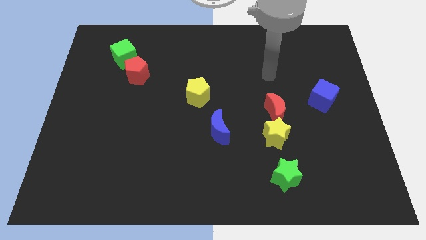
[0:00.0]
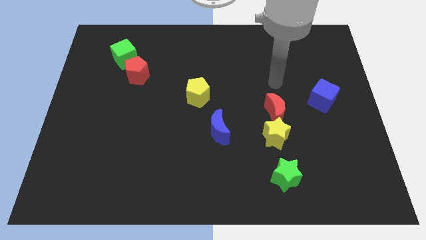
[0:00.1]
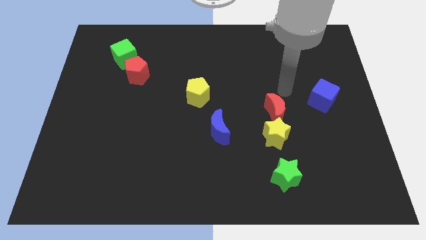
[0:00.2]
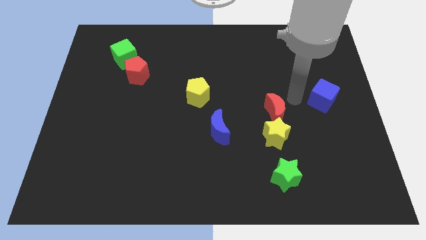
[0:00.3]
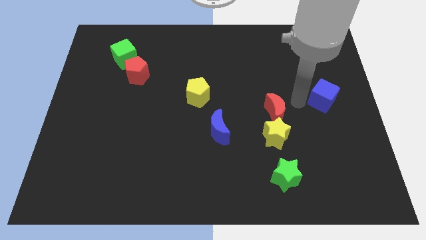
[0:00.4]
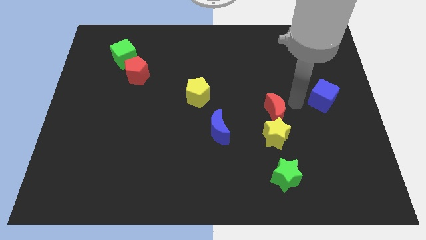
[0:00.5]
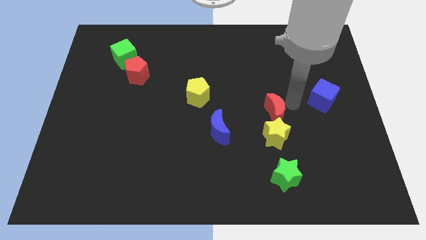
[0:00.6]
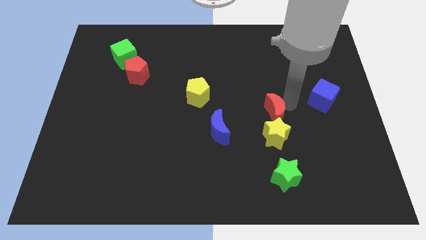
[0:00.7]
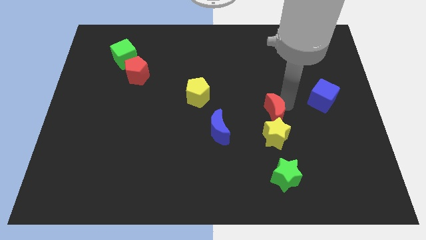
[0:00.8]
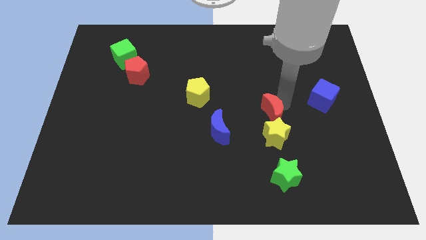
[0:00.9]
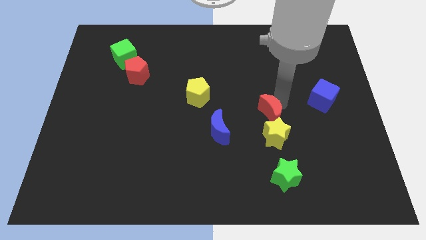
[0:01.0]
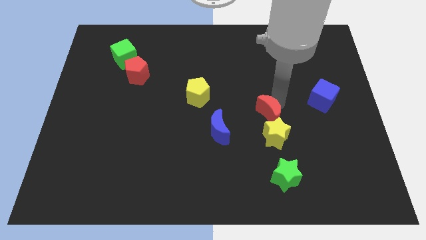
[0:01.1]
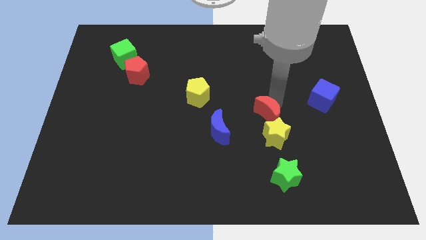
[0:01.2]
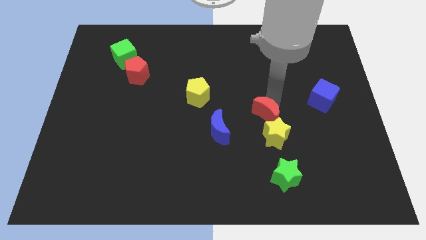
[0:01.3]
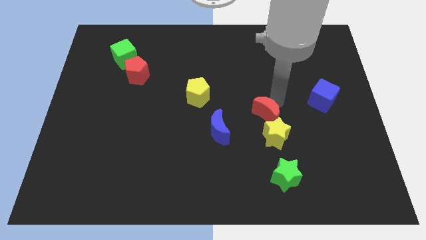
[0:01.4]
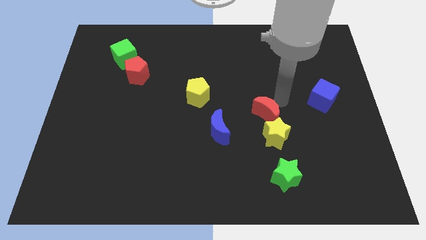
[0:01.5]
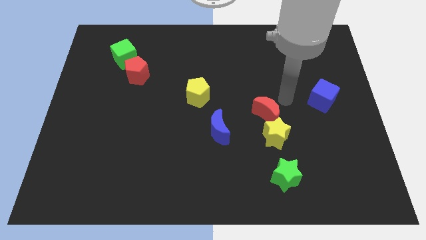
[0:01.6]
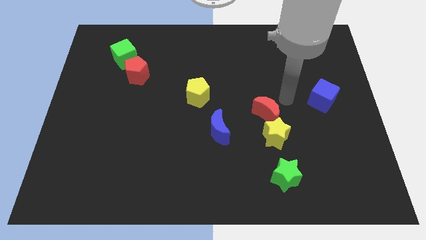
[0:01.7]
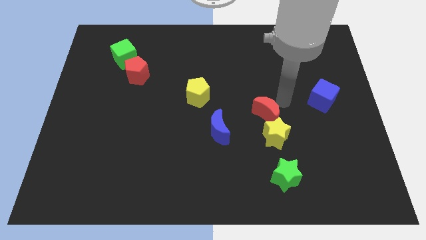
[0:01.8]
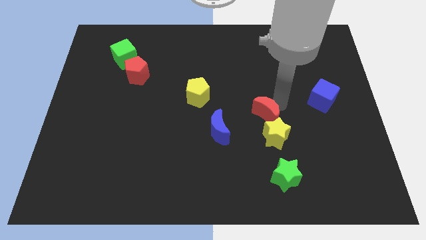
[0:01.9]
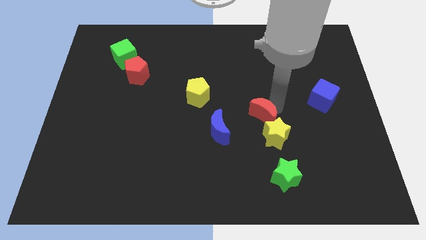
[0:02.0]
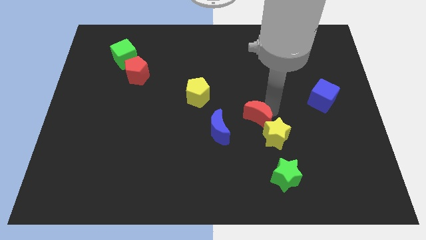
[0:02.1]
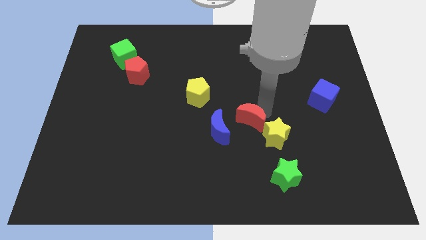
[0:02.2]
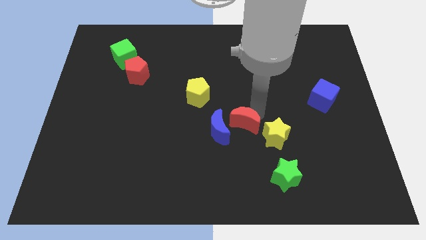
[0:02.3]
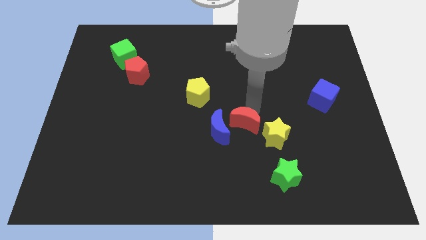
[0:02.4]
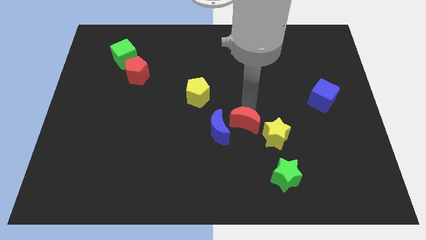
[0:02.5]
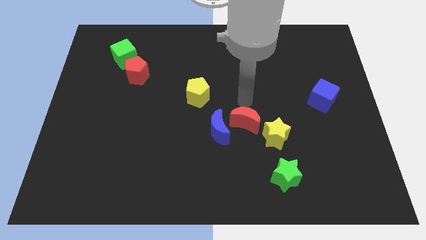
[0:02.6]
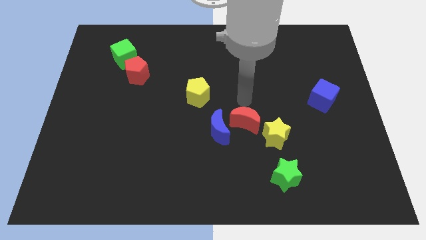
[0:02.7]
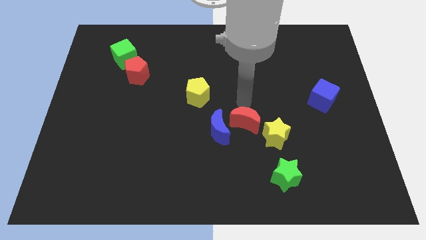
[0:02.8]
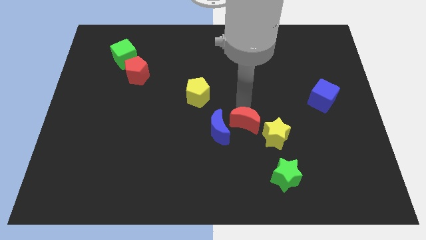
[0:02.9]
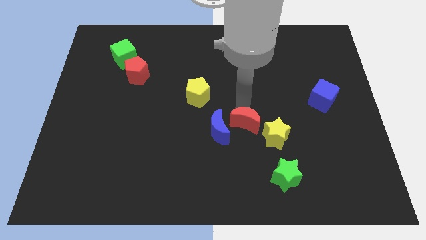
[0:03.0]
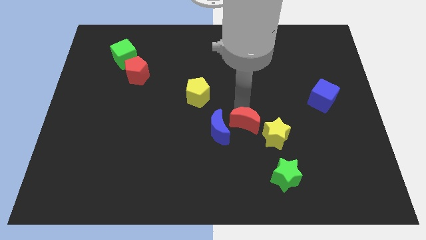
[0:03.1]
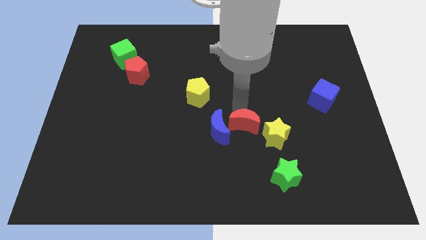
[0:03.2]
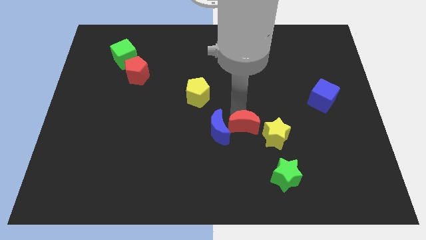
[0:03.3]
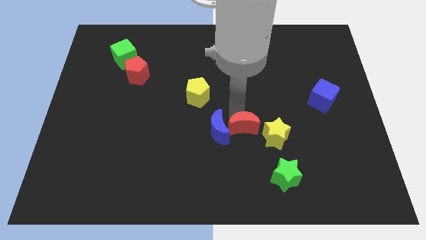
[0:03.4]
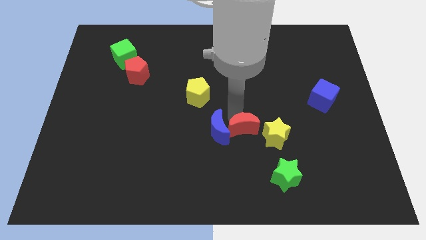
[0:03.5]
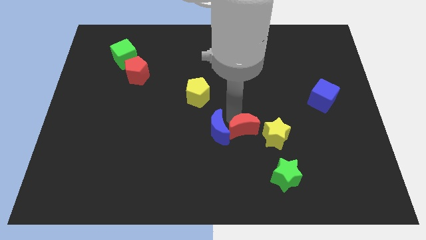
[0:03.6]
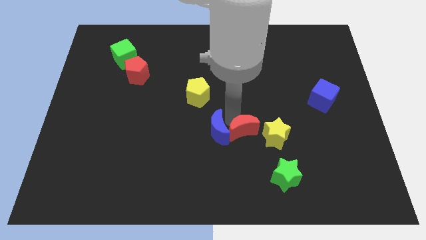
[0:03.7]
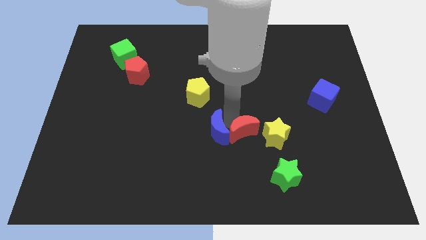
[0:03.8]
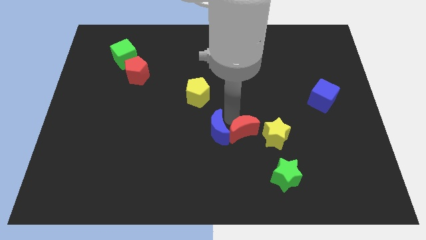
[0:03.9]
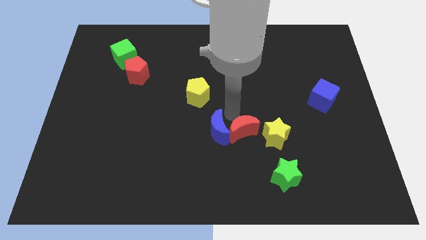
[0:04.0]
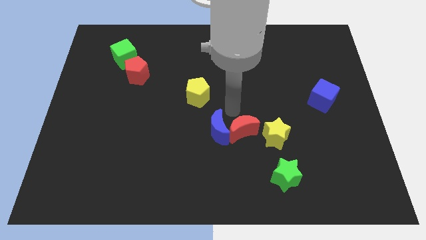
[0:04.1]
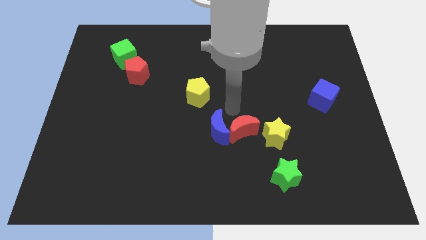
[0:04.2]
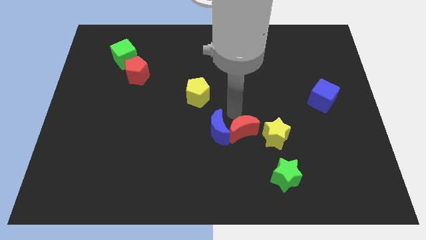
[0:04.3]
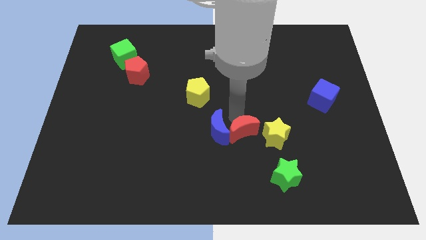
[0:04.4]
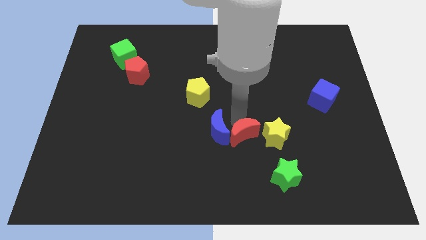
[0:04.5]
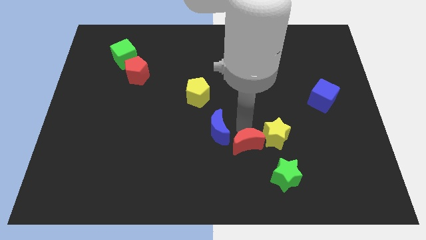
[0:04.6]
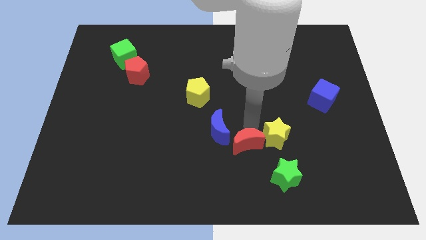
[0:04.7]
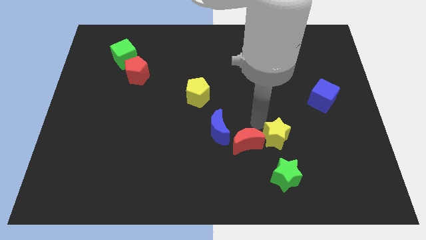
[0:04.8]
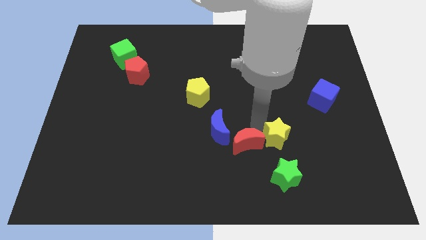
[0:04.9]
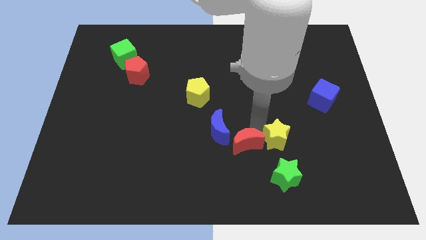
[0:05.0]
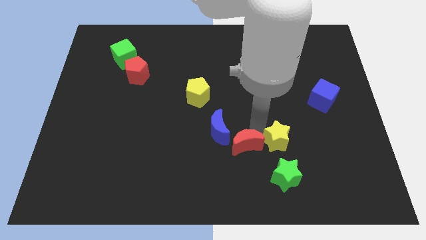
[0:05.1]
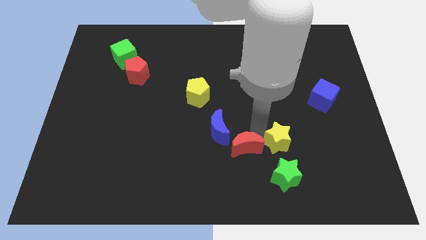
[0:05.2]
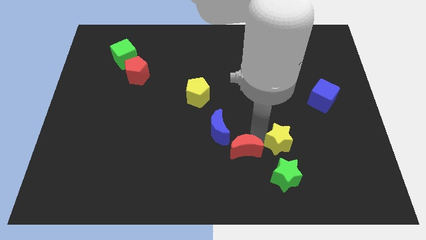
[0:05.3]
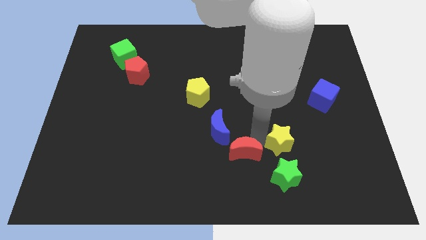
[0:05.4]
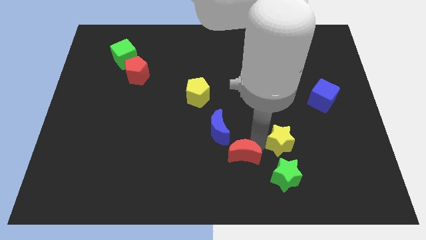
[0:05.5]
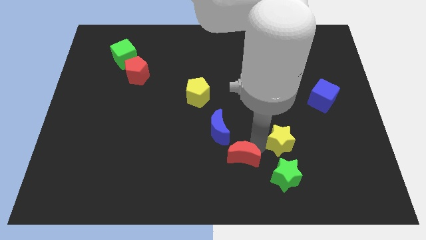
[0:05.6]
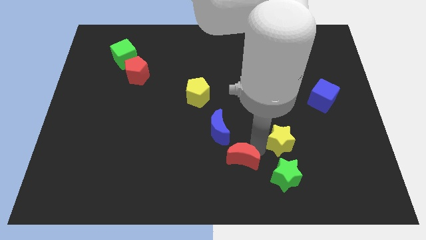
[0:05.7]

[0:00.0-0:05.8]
put the red moon to the bottom side
